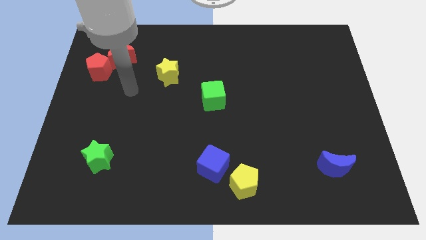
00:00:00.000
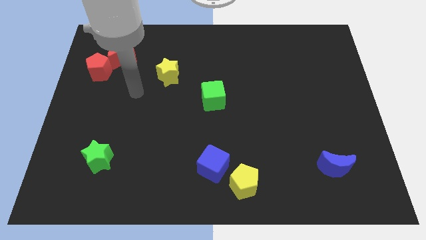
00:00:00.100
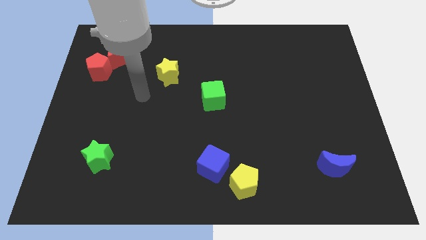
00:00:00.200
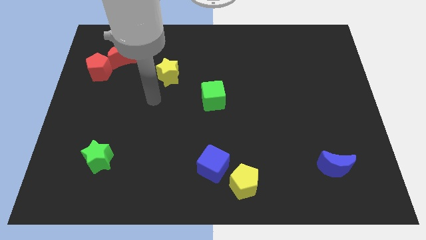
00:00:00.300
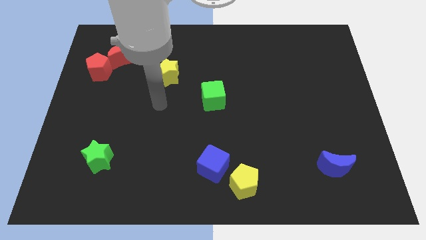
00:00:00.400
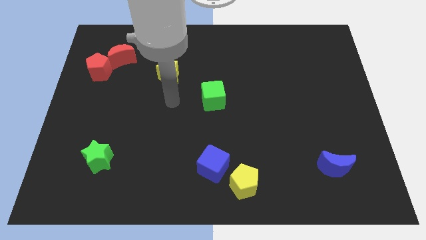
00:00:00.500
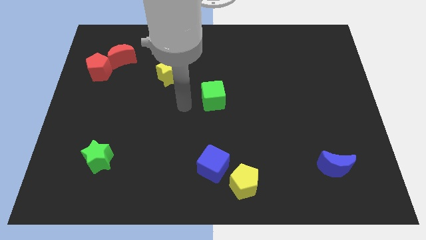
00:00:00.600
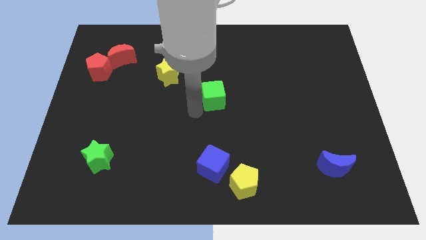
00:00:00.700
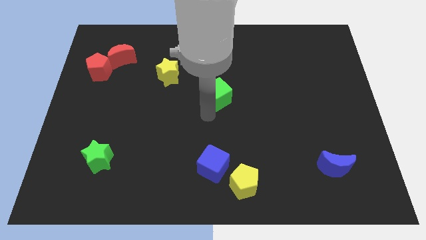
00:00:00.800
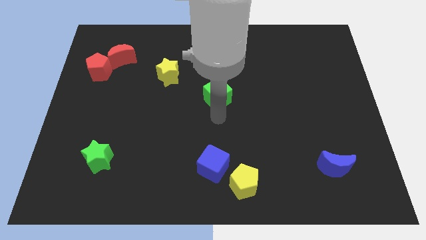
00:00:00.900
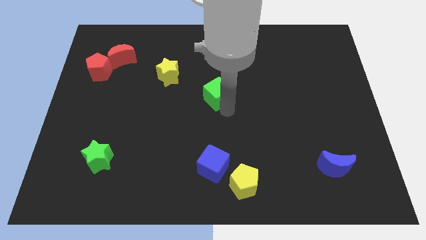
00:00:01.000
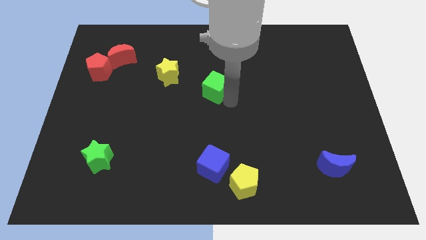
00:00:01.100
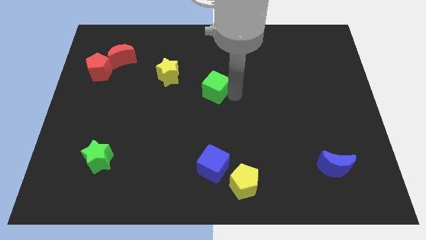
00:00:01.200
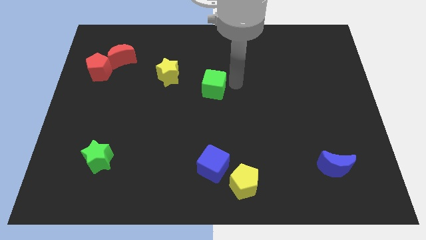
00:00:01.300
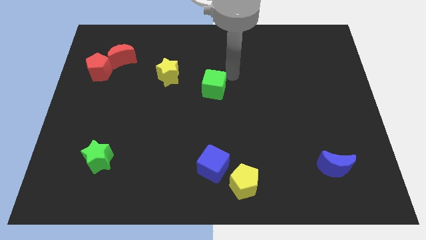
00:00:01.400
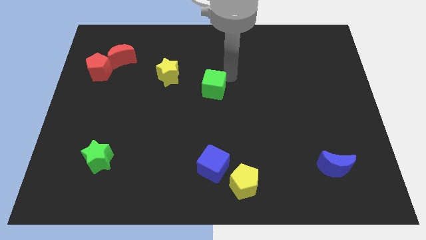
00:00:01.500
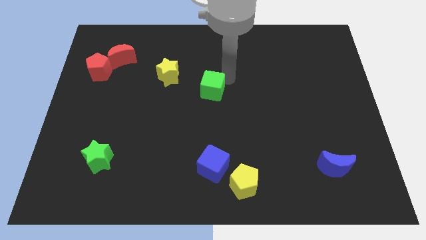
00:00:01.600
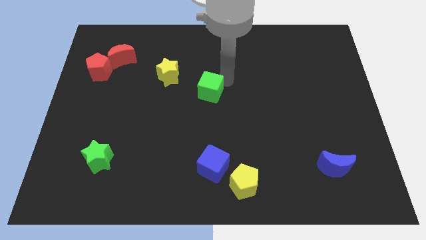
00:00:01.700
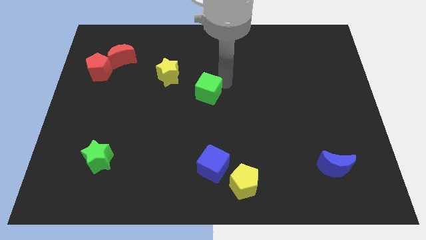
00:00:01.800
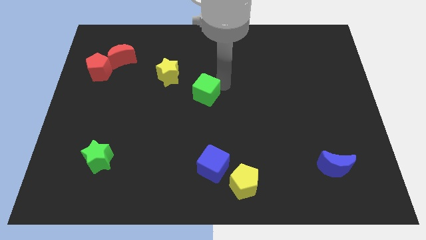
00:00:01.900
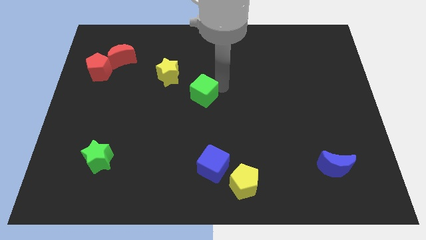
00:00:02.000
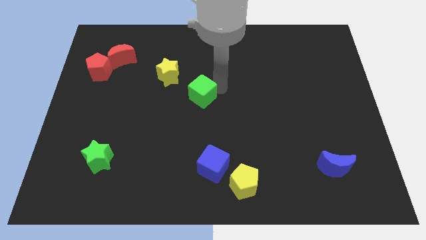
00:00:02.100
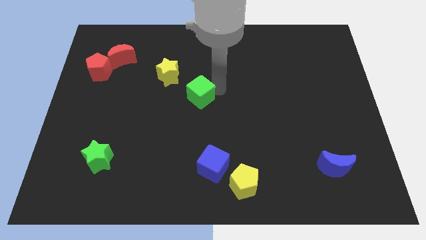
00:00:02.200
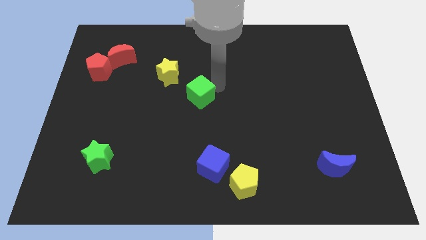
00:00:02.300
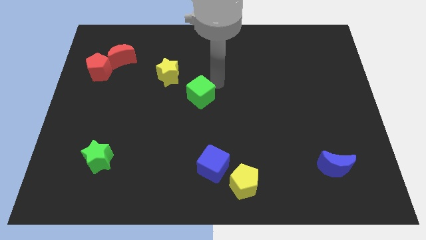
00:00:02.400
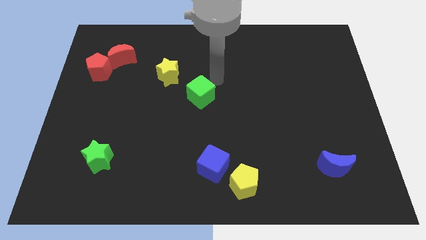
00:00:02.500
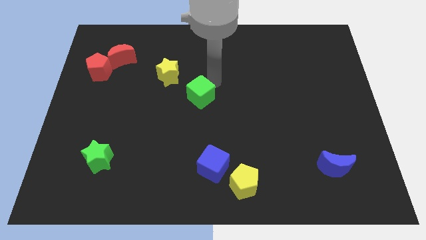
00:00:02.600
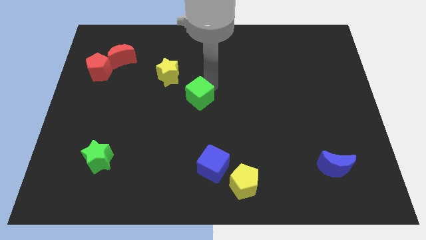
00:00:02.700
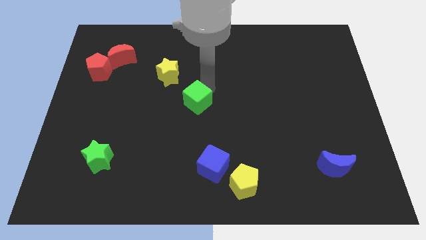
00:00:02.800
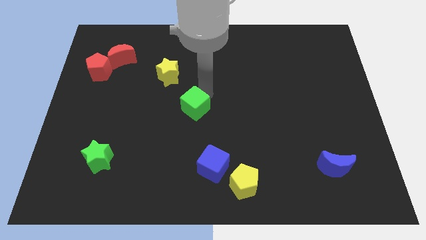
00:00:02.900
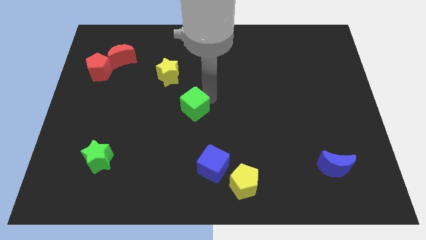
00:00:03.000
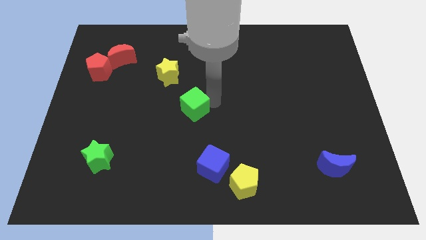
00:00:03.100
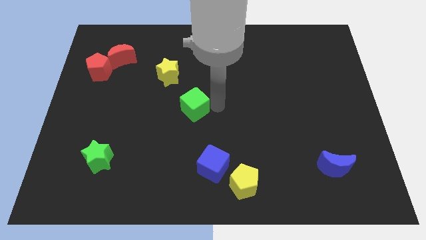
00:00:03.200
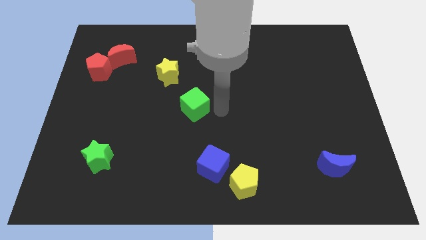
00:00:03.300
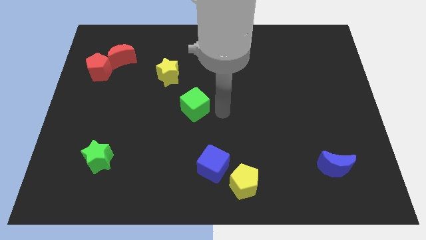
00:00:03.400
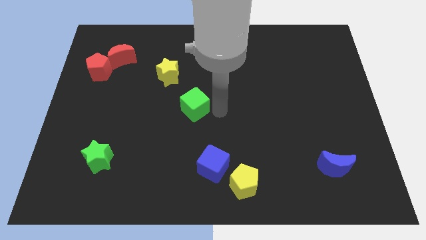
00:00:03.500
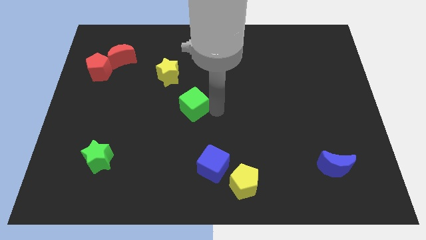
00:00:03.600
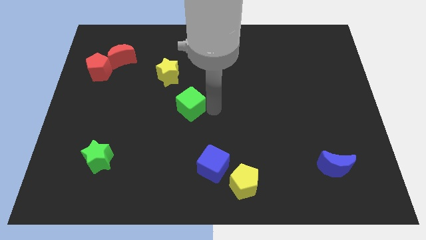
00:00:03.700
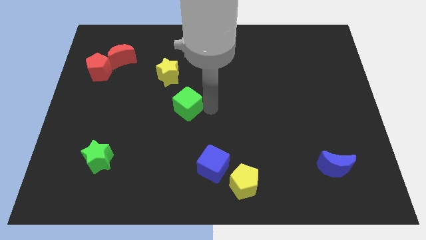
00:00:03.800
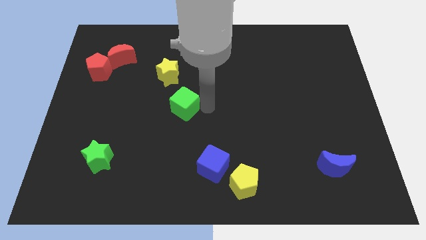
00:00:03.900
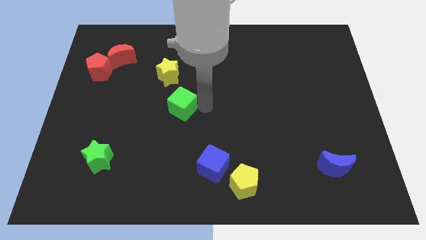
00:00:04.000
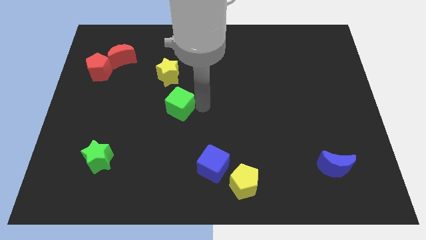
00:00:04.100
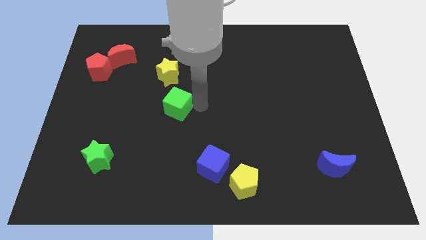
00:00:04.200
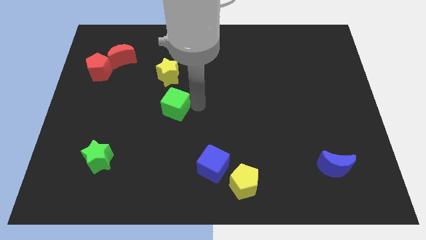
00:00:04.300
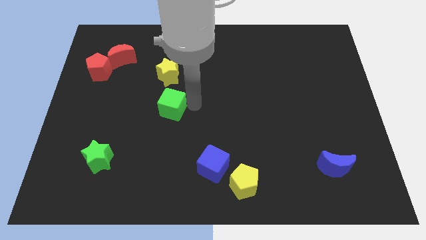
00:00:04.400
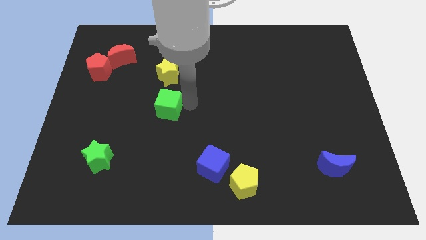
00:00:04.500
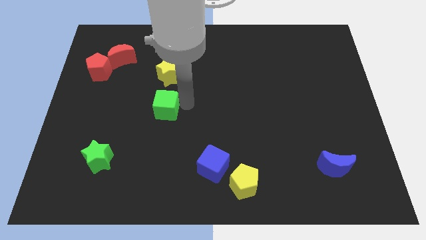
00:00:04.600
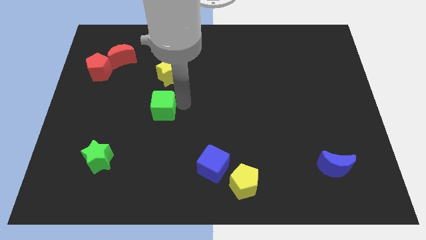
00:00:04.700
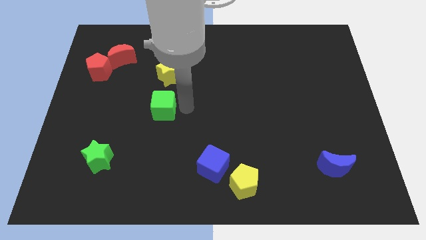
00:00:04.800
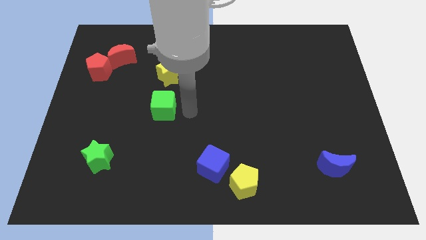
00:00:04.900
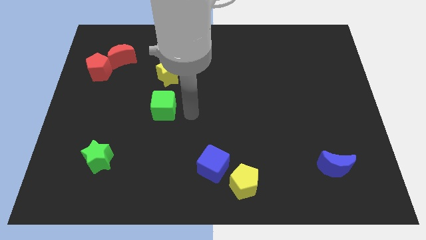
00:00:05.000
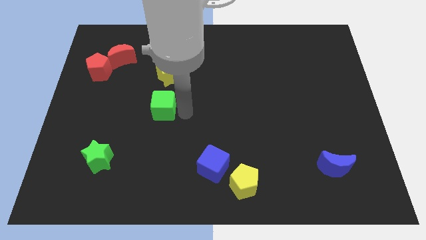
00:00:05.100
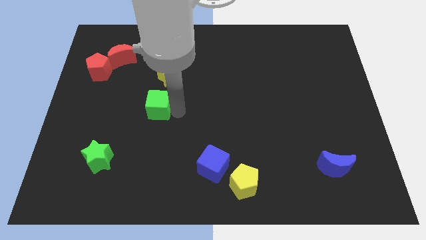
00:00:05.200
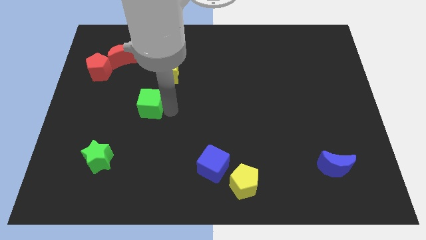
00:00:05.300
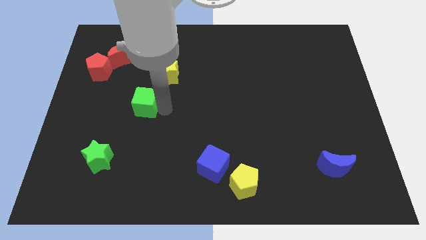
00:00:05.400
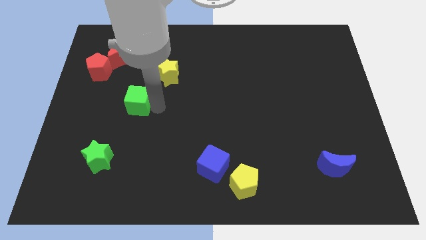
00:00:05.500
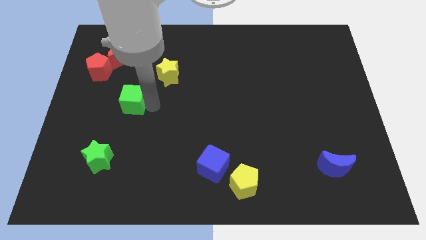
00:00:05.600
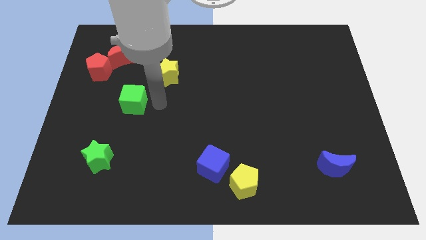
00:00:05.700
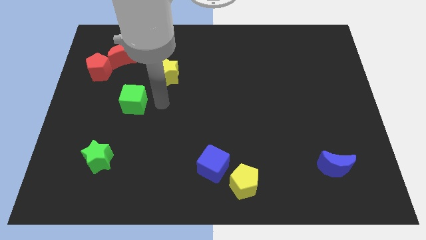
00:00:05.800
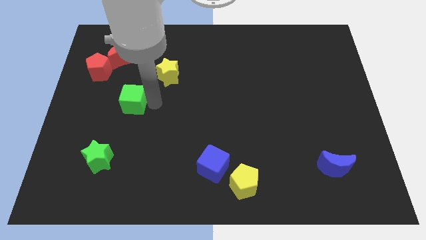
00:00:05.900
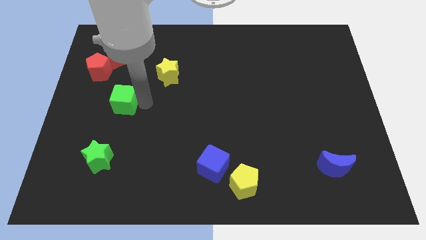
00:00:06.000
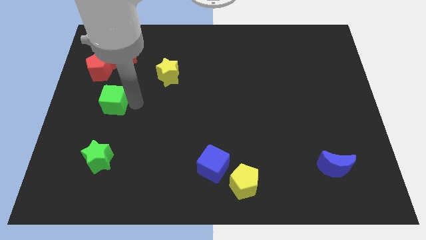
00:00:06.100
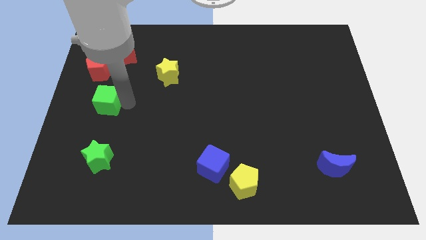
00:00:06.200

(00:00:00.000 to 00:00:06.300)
push the green cube to the bottom of the red pentagon

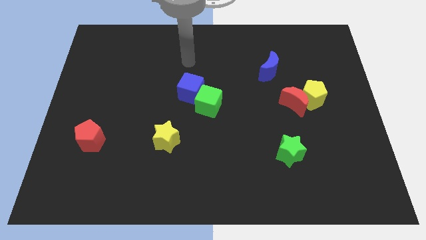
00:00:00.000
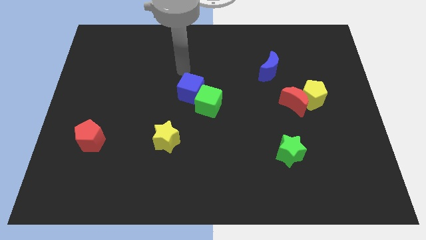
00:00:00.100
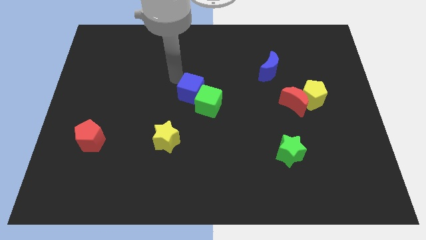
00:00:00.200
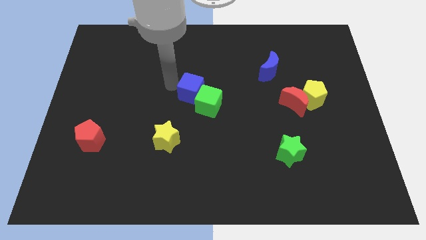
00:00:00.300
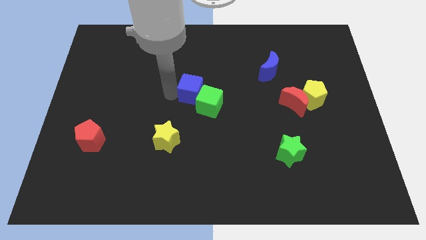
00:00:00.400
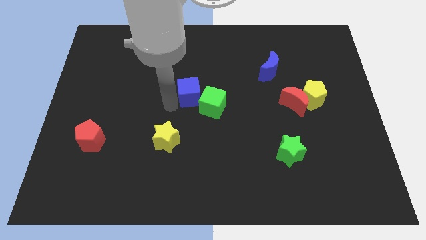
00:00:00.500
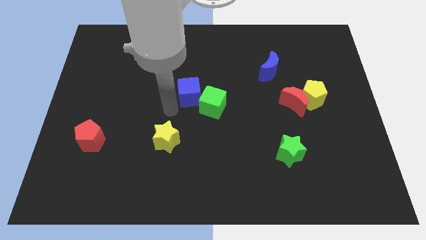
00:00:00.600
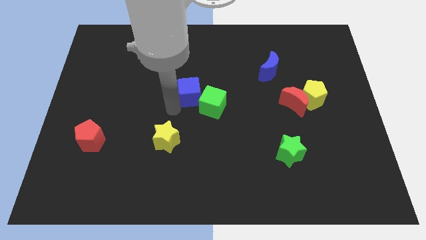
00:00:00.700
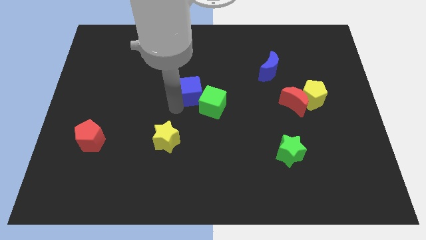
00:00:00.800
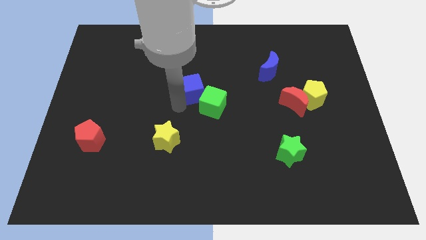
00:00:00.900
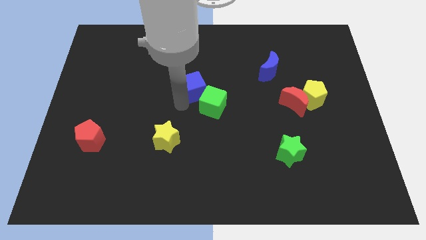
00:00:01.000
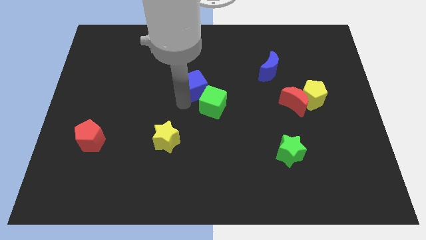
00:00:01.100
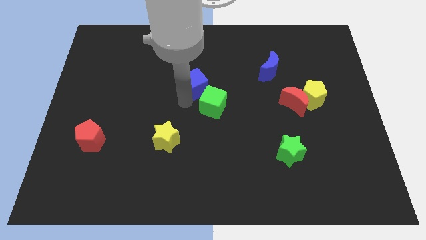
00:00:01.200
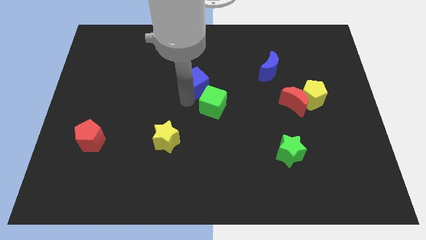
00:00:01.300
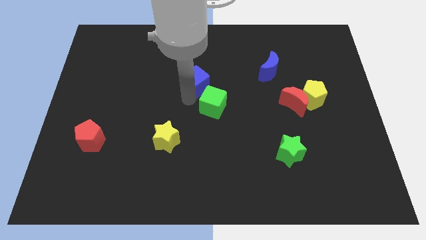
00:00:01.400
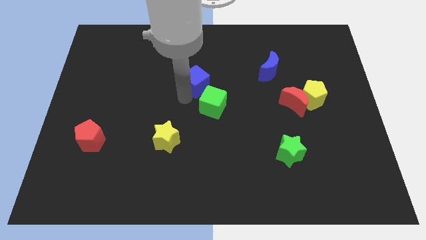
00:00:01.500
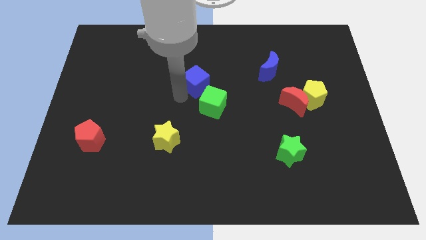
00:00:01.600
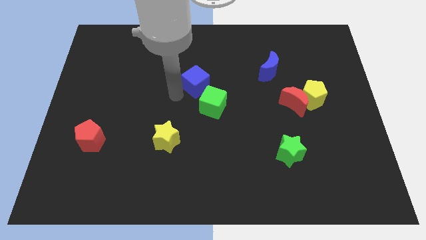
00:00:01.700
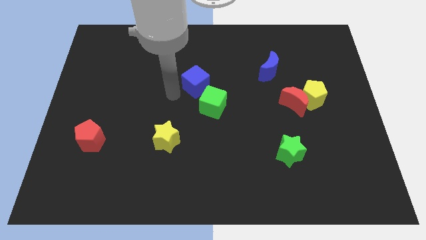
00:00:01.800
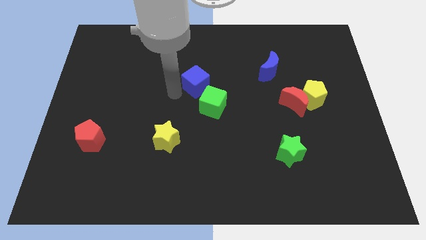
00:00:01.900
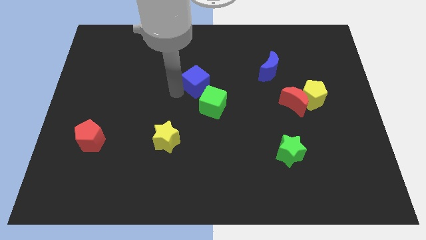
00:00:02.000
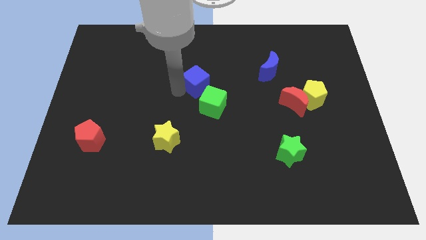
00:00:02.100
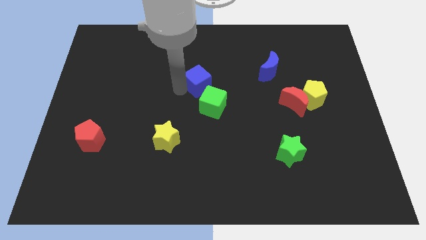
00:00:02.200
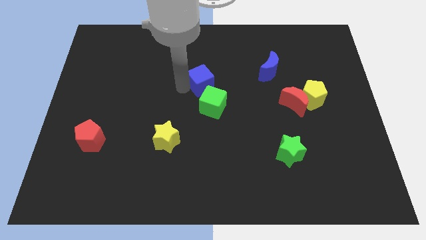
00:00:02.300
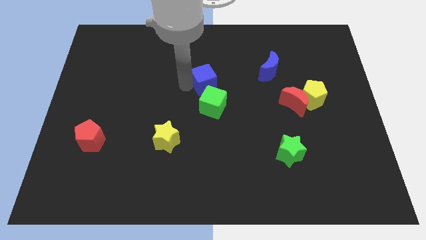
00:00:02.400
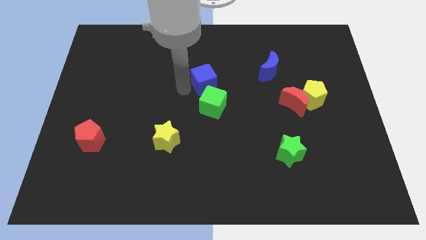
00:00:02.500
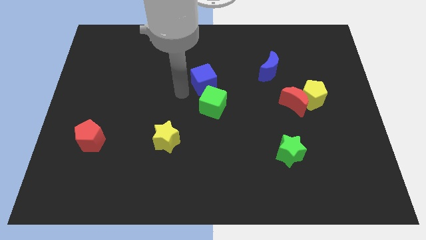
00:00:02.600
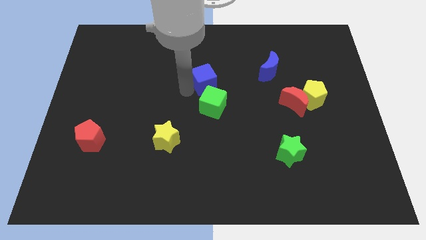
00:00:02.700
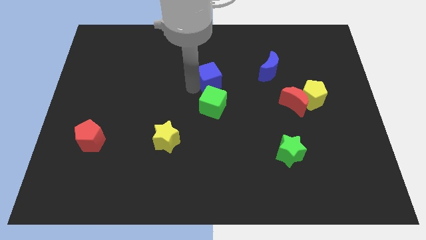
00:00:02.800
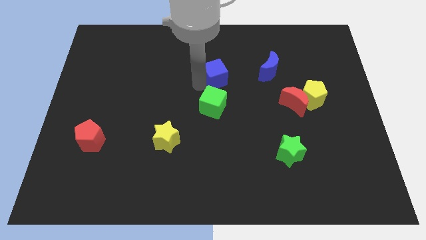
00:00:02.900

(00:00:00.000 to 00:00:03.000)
put the blue cube to the left of the blue moon
